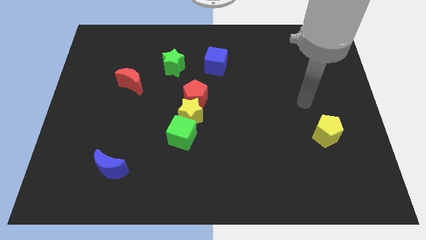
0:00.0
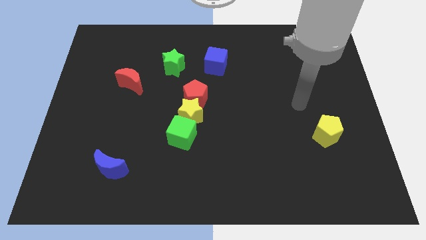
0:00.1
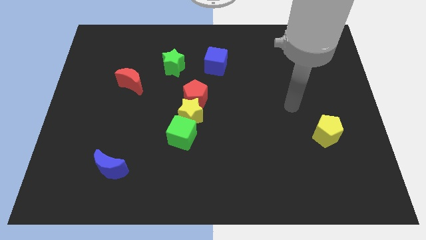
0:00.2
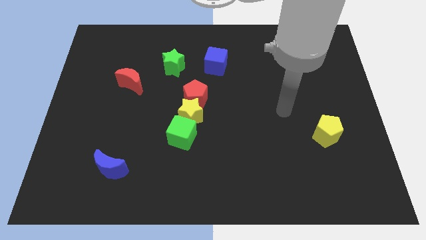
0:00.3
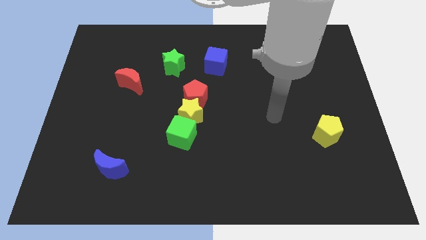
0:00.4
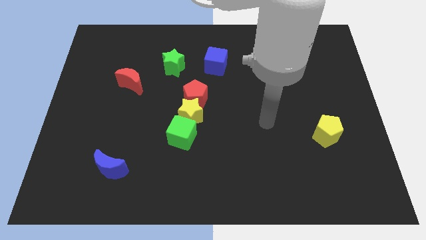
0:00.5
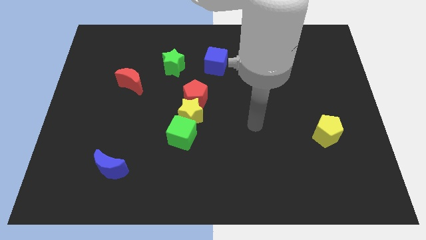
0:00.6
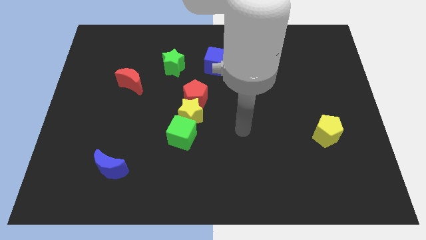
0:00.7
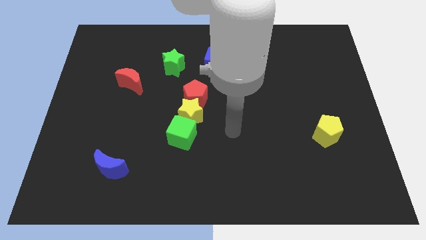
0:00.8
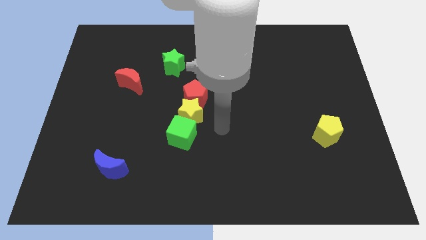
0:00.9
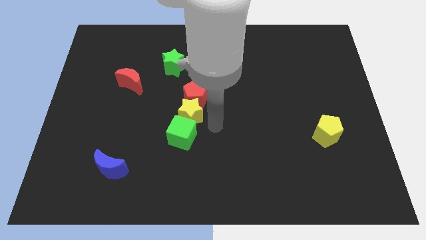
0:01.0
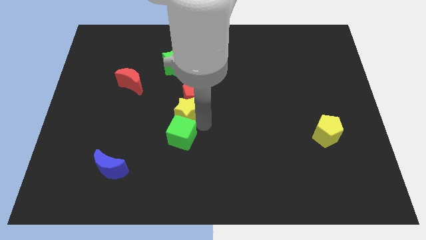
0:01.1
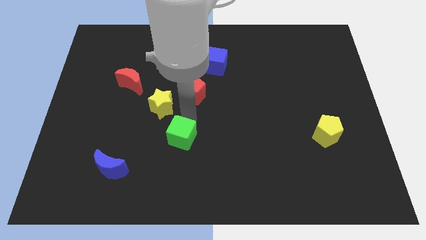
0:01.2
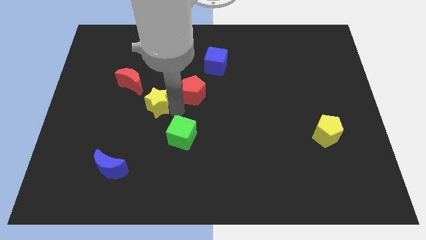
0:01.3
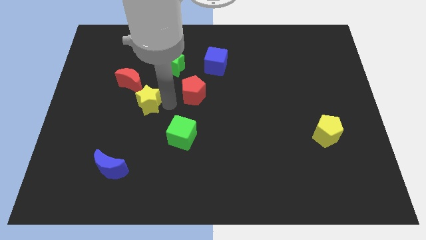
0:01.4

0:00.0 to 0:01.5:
move the red pentagon away from the yellow star

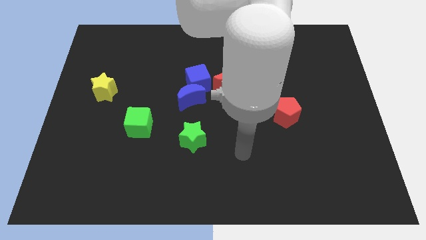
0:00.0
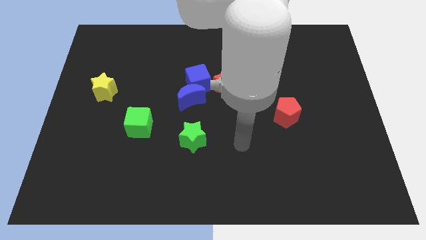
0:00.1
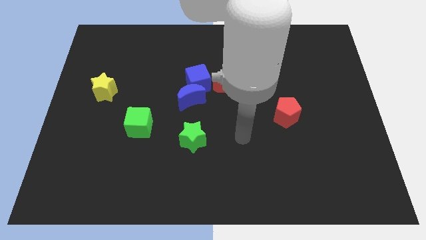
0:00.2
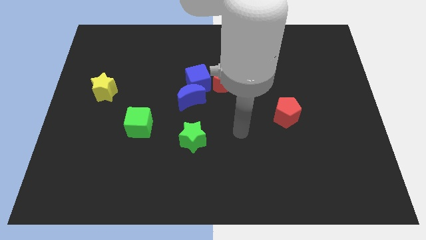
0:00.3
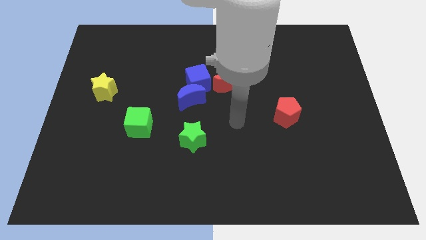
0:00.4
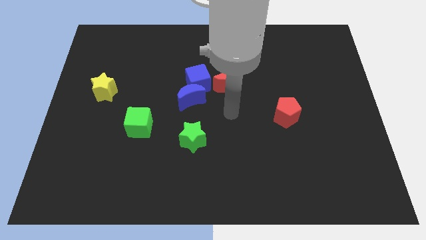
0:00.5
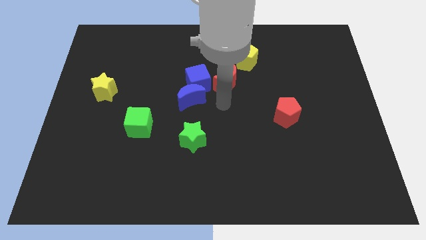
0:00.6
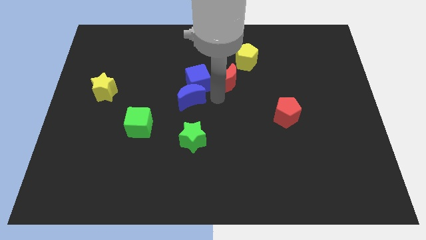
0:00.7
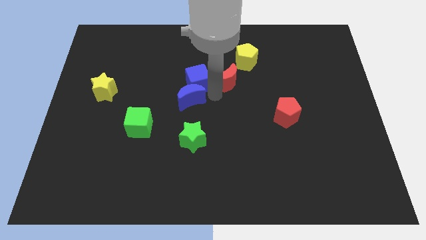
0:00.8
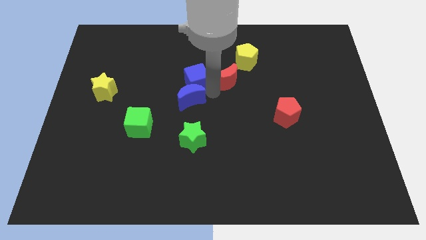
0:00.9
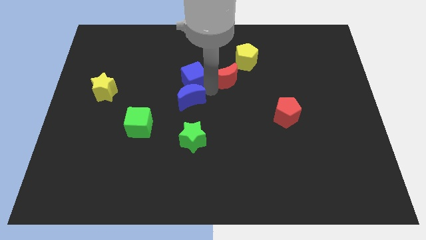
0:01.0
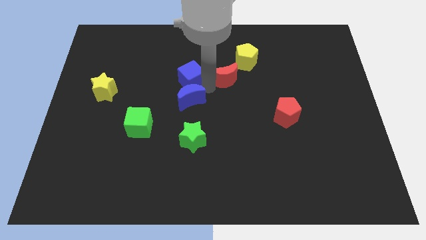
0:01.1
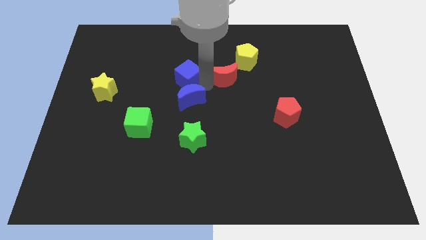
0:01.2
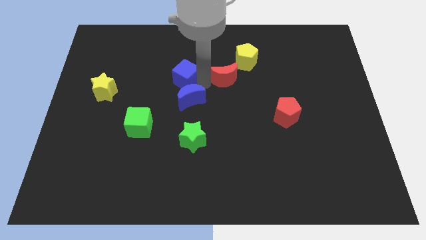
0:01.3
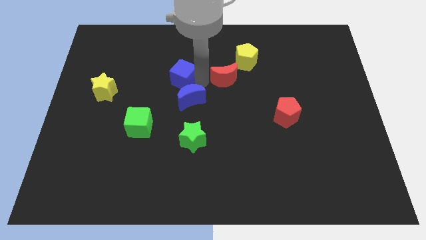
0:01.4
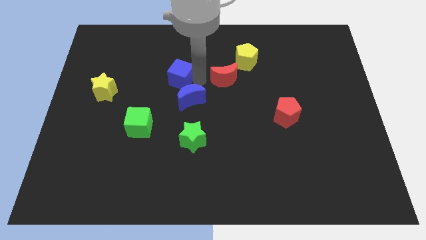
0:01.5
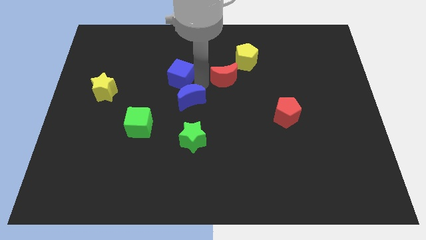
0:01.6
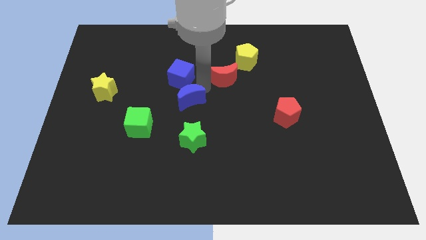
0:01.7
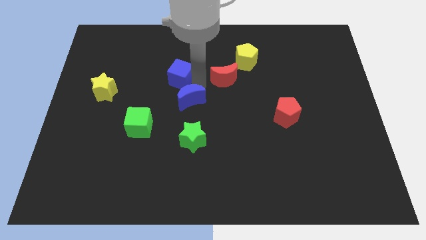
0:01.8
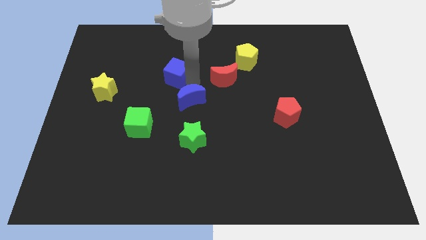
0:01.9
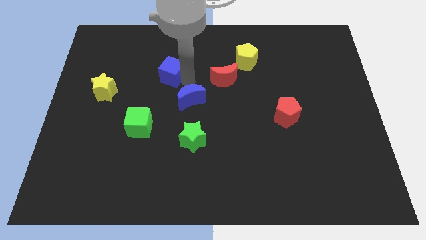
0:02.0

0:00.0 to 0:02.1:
move the blue cube away from the blue moon and red moon

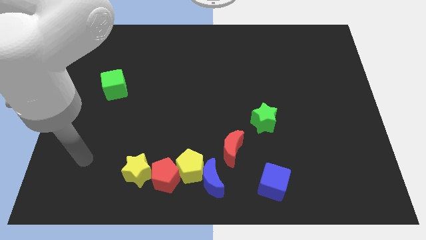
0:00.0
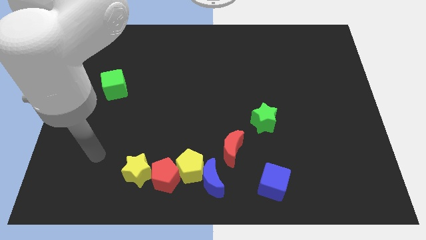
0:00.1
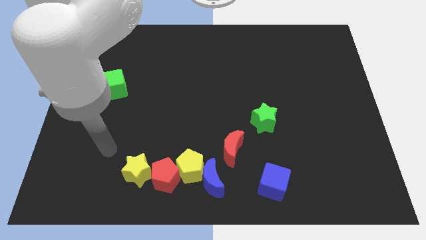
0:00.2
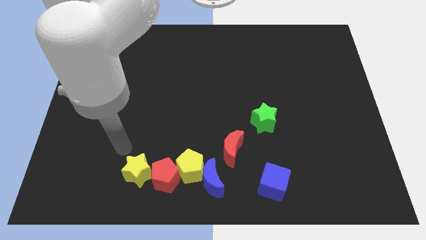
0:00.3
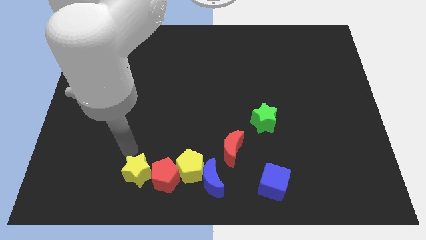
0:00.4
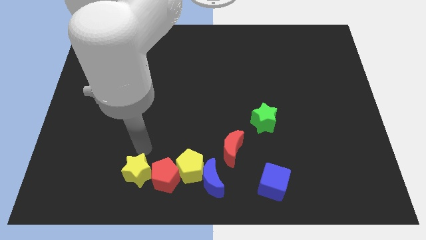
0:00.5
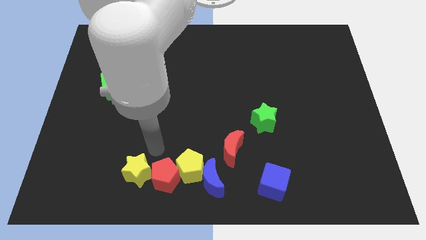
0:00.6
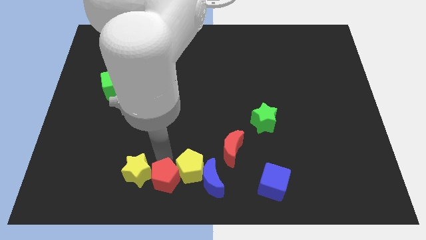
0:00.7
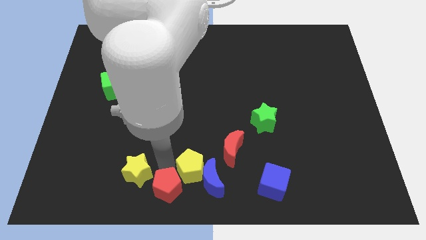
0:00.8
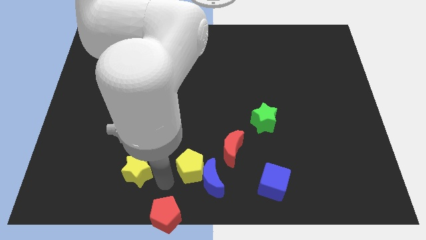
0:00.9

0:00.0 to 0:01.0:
separate the yellow star from the red pentagon

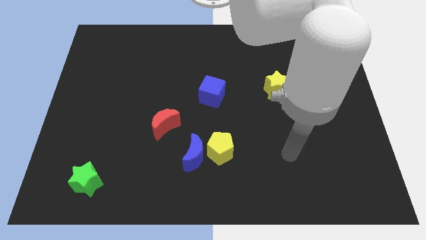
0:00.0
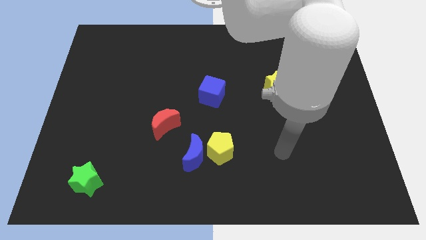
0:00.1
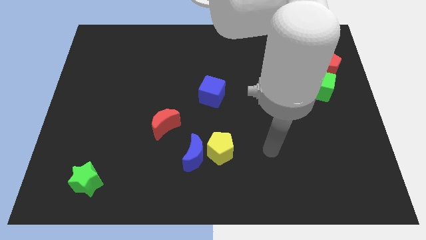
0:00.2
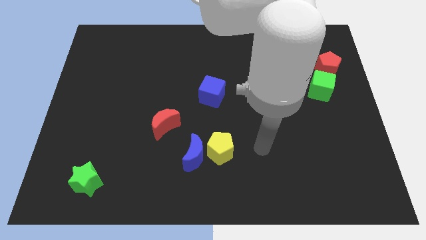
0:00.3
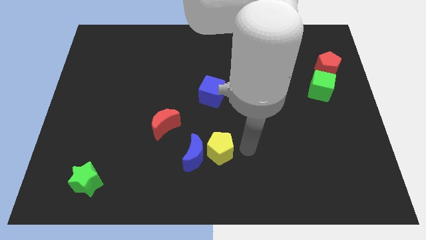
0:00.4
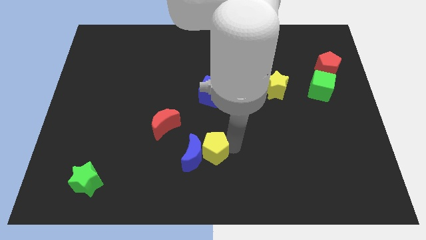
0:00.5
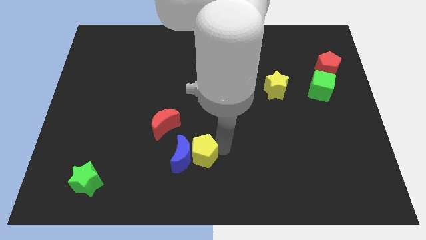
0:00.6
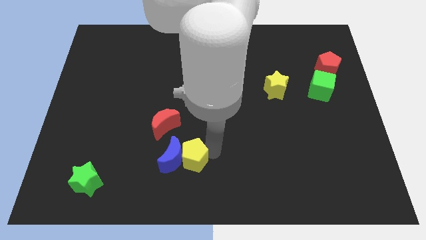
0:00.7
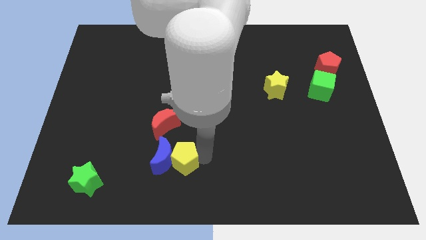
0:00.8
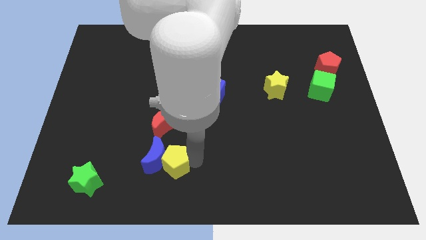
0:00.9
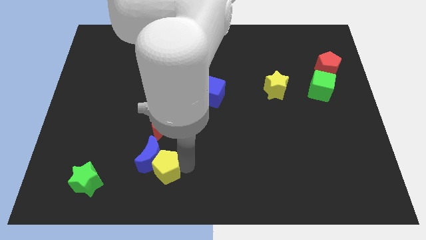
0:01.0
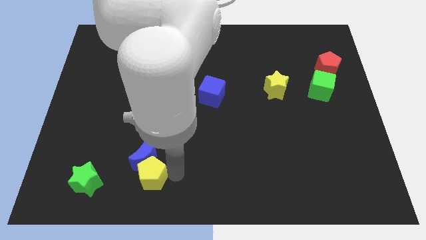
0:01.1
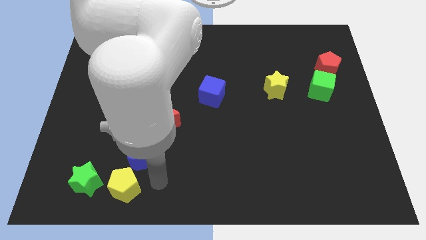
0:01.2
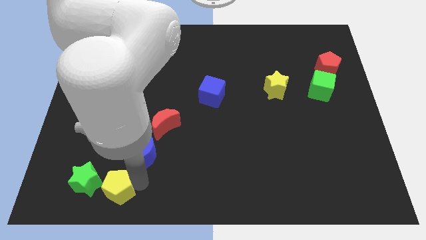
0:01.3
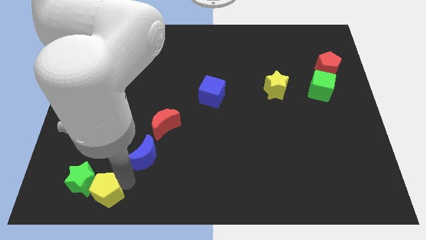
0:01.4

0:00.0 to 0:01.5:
pull the blue moon apart from the yellow pentagon

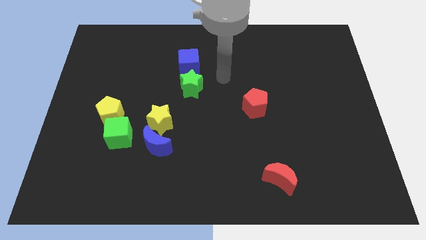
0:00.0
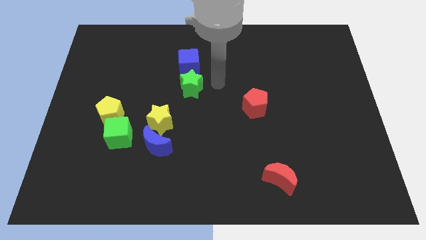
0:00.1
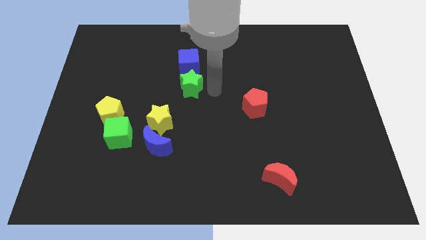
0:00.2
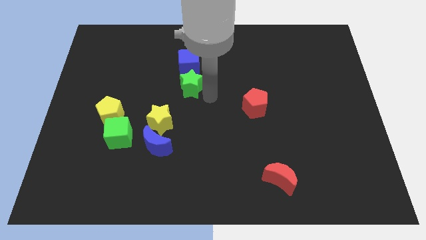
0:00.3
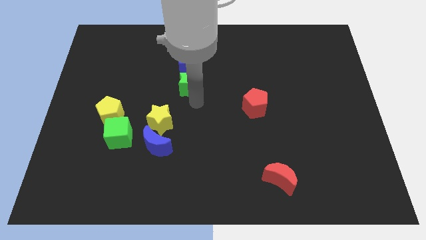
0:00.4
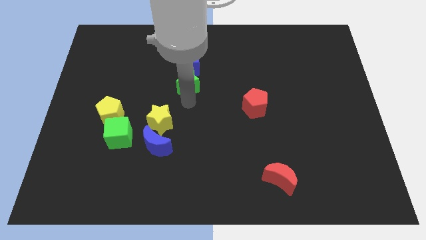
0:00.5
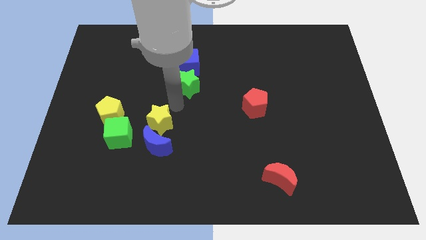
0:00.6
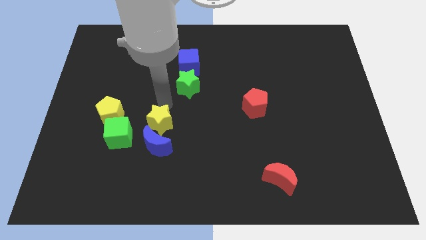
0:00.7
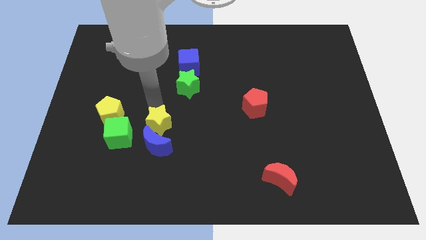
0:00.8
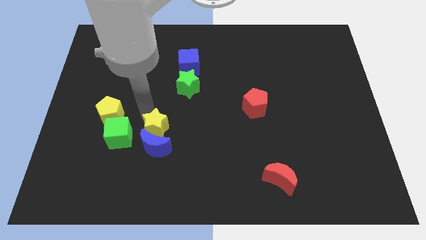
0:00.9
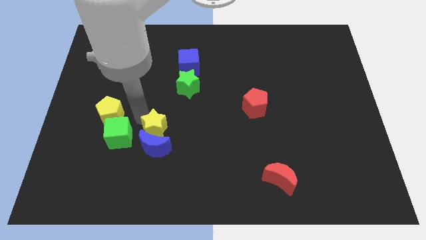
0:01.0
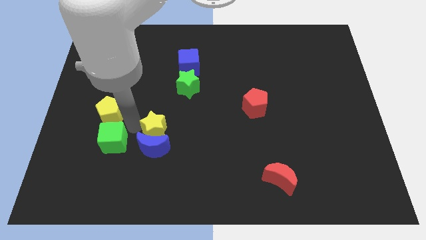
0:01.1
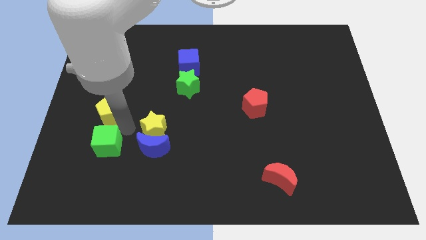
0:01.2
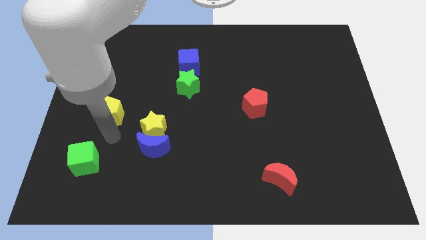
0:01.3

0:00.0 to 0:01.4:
separate the yellow pentagon from the green cube

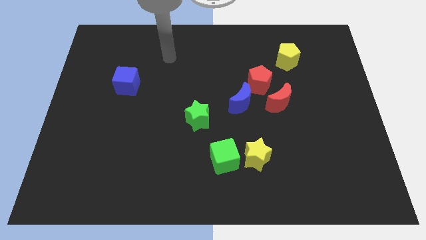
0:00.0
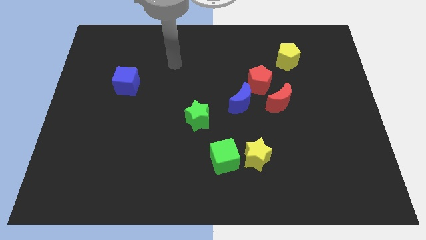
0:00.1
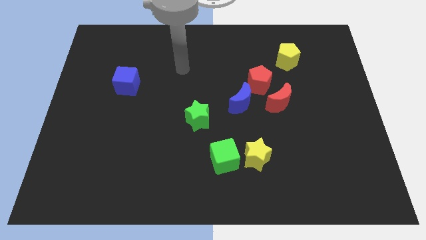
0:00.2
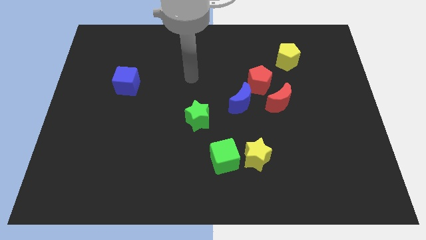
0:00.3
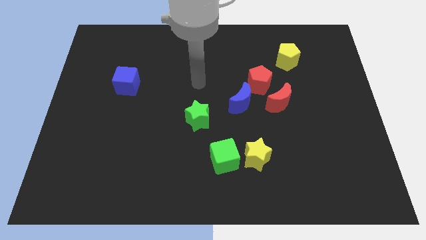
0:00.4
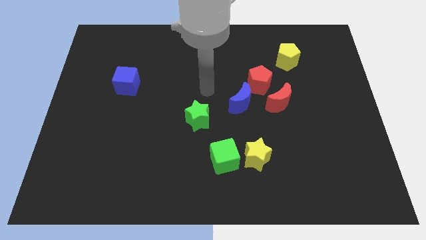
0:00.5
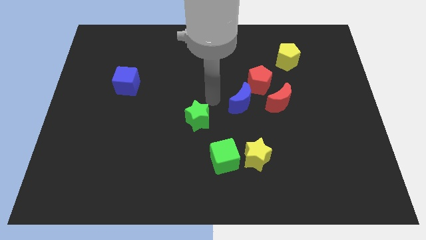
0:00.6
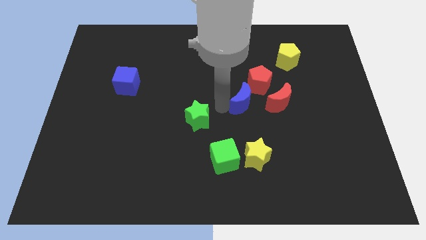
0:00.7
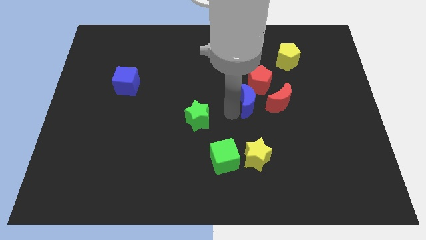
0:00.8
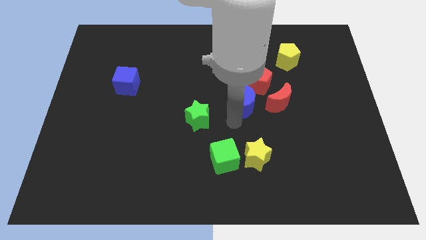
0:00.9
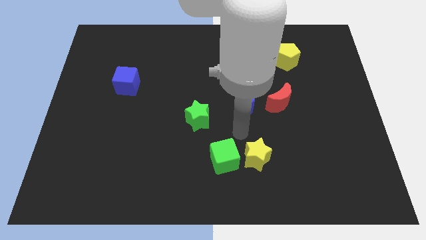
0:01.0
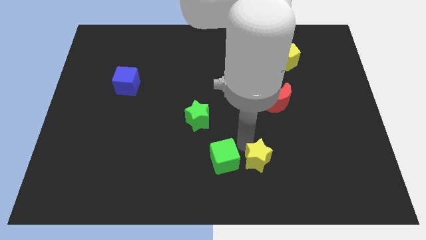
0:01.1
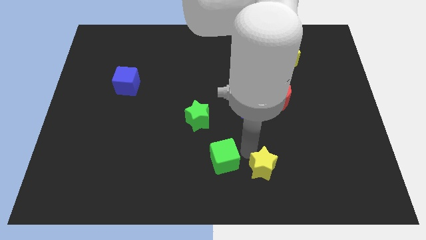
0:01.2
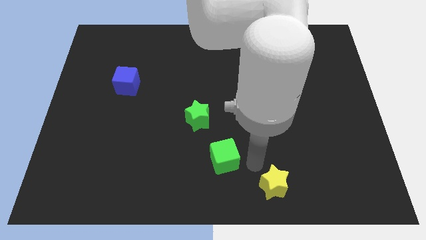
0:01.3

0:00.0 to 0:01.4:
separate the green cube from the yellow star

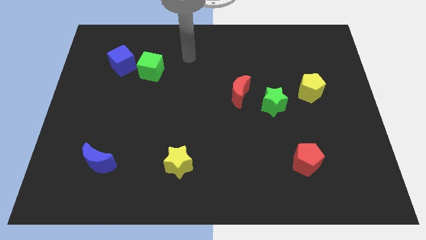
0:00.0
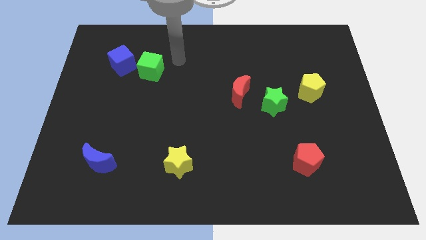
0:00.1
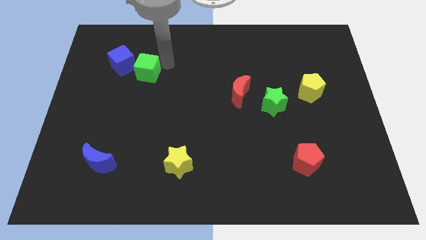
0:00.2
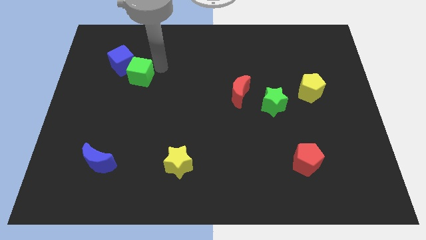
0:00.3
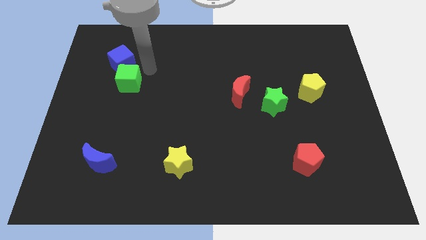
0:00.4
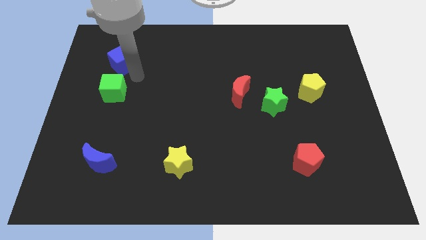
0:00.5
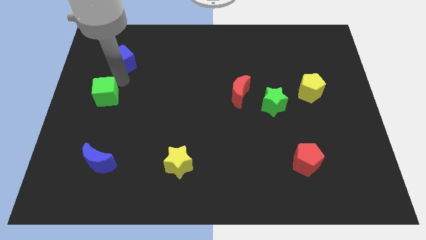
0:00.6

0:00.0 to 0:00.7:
move the blue cube away from the green cube
